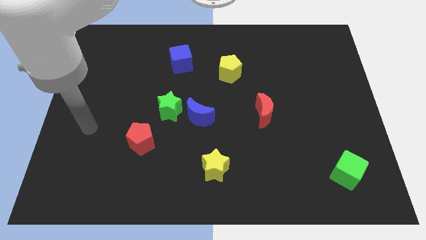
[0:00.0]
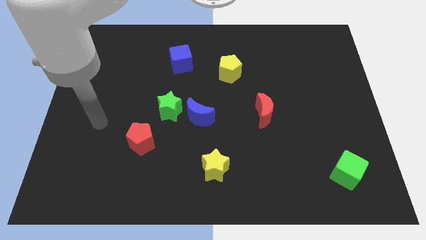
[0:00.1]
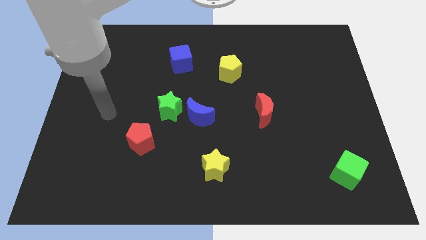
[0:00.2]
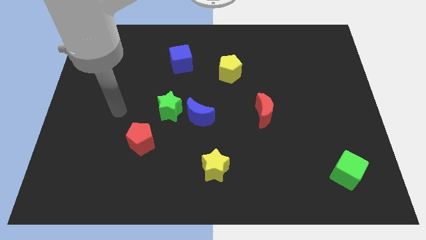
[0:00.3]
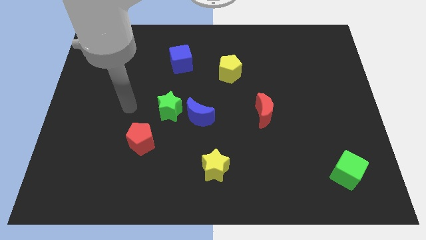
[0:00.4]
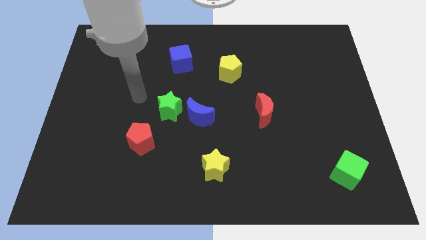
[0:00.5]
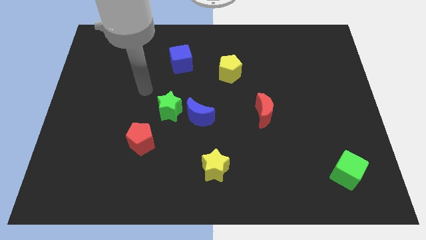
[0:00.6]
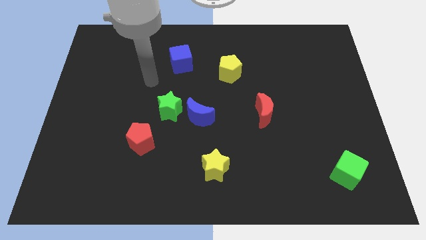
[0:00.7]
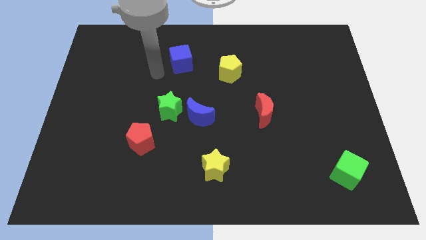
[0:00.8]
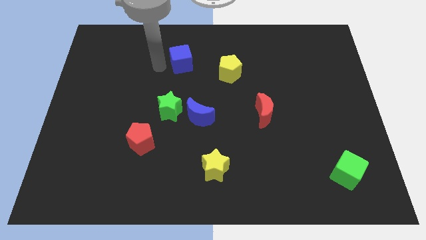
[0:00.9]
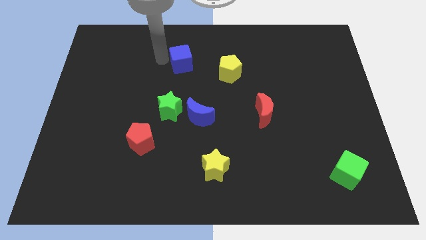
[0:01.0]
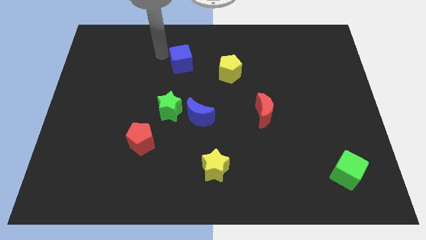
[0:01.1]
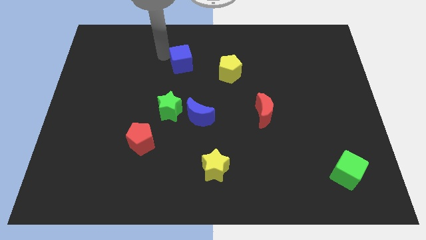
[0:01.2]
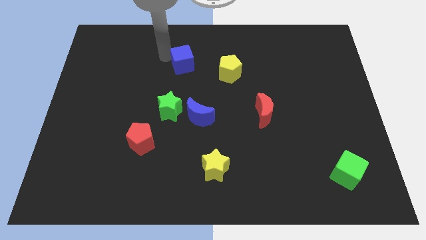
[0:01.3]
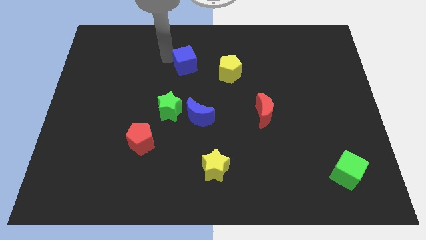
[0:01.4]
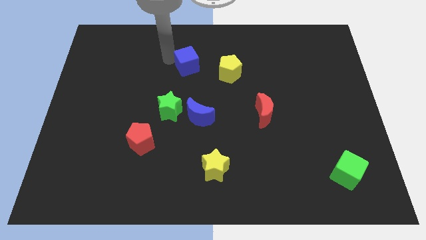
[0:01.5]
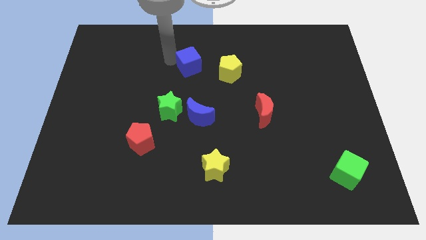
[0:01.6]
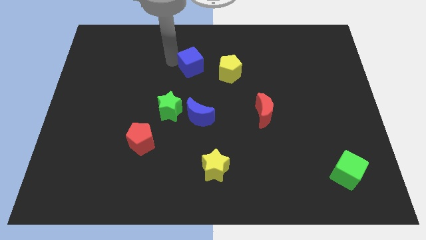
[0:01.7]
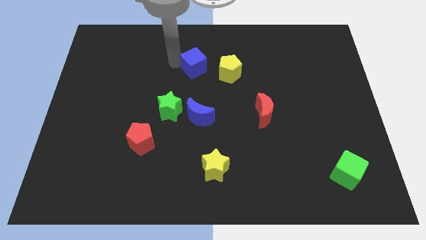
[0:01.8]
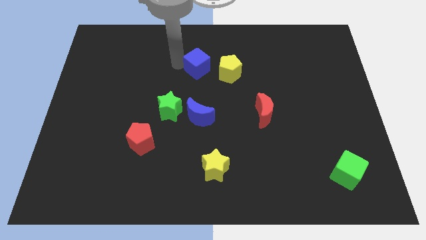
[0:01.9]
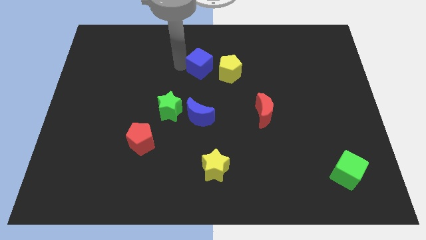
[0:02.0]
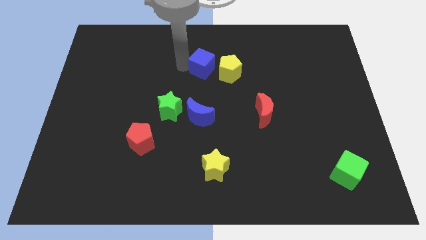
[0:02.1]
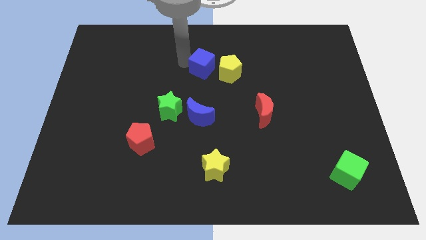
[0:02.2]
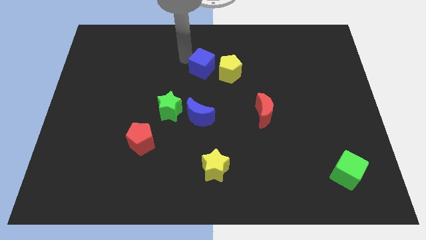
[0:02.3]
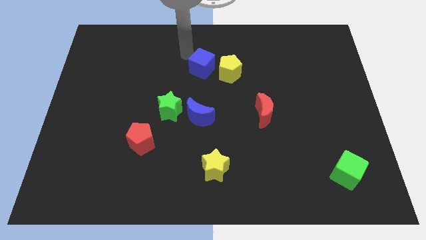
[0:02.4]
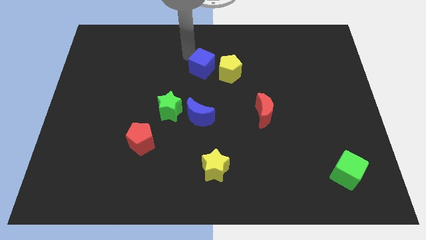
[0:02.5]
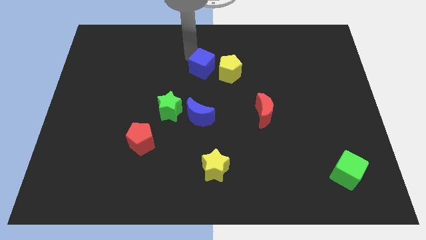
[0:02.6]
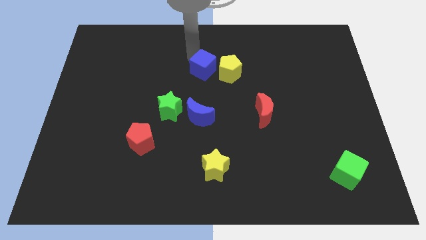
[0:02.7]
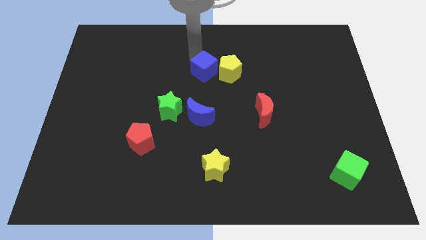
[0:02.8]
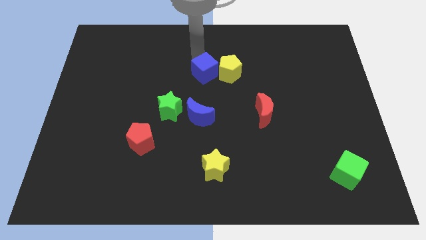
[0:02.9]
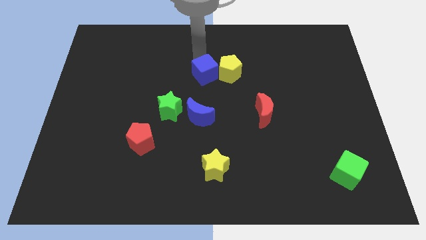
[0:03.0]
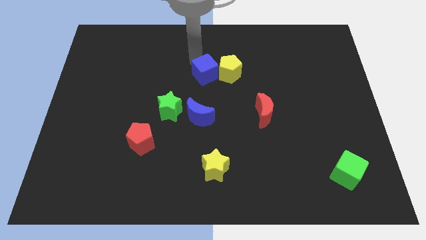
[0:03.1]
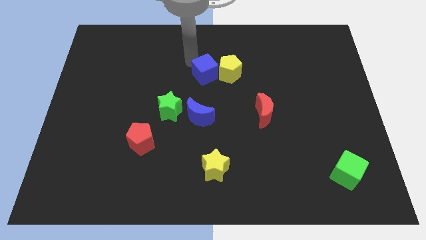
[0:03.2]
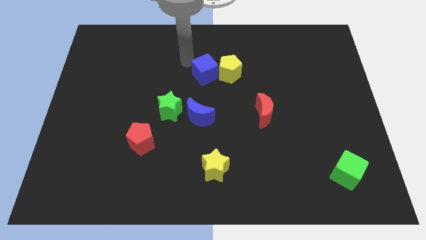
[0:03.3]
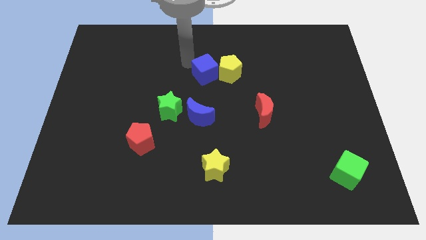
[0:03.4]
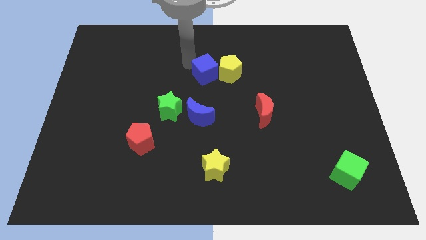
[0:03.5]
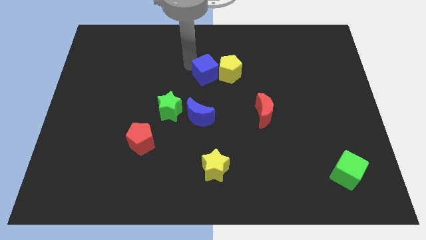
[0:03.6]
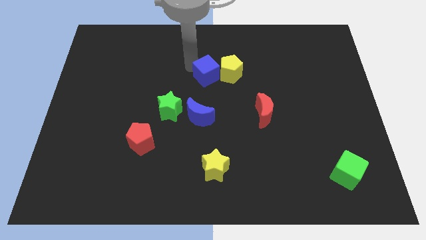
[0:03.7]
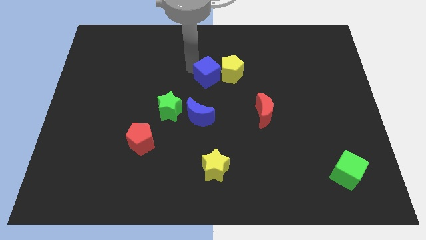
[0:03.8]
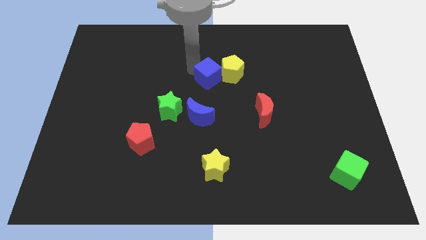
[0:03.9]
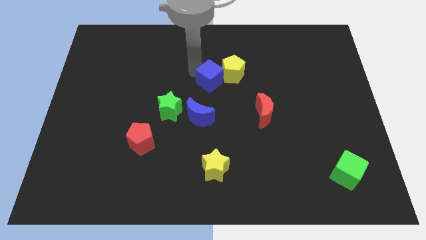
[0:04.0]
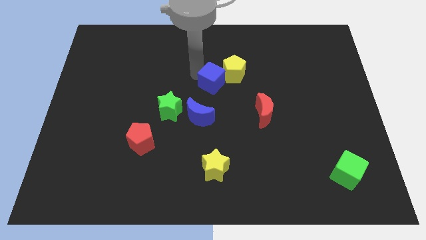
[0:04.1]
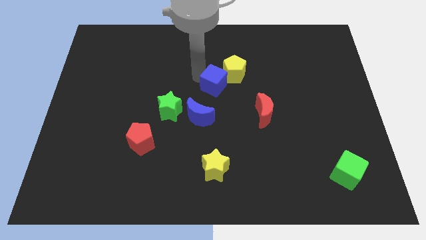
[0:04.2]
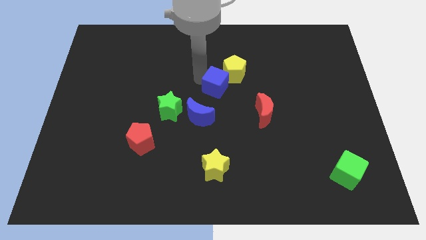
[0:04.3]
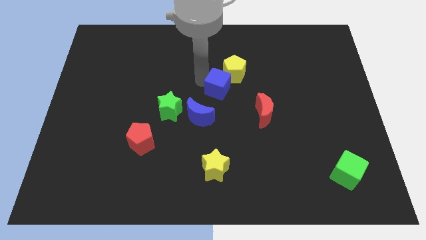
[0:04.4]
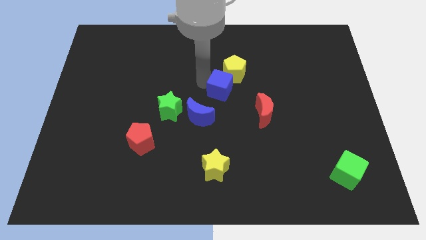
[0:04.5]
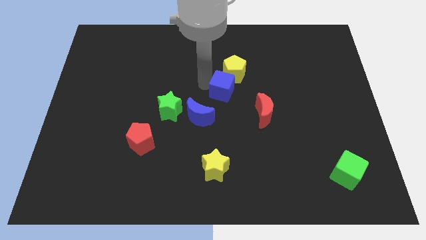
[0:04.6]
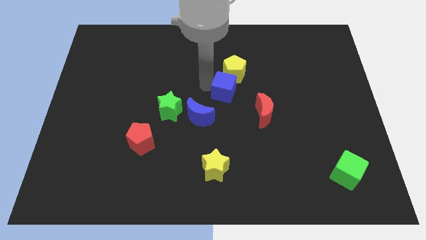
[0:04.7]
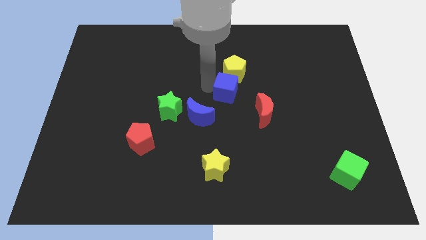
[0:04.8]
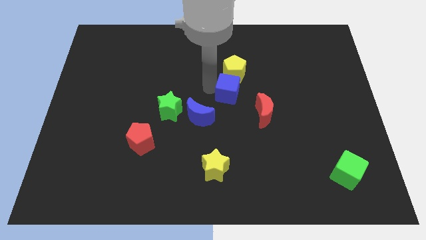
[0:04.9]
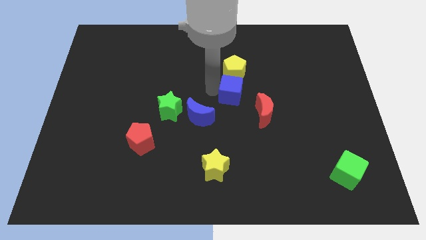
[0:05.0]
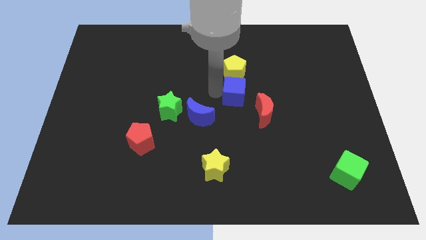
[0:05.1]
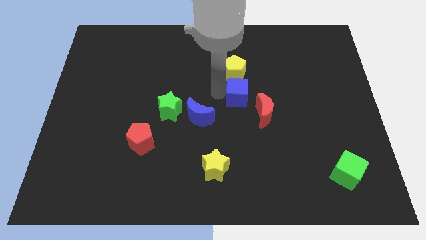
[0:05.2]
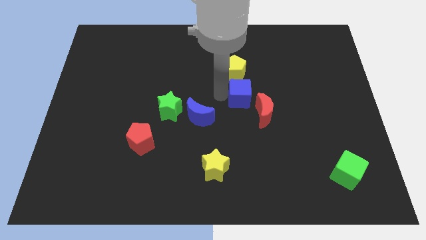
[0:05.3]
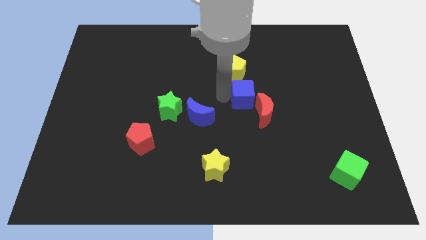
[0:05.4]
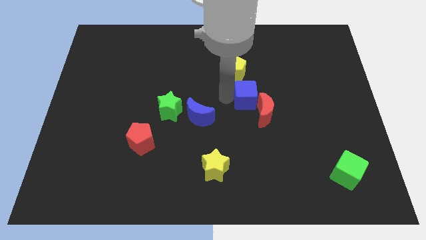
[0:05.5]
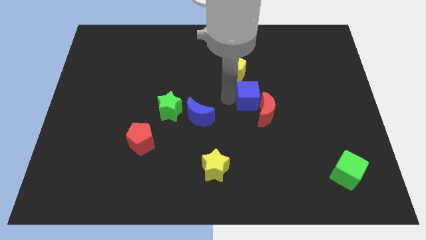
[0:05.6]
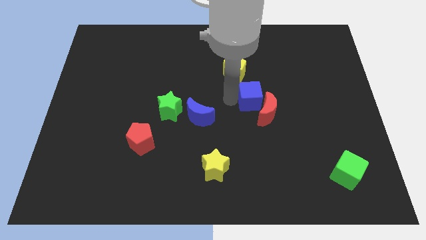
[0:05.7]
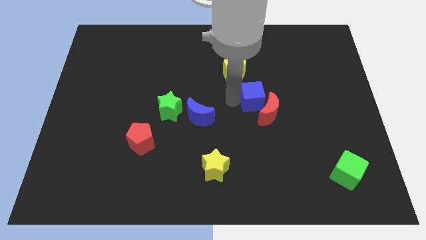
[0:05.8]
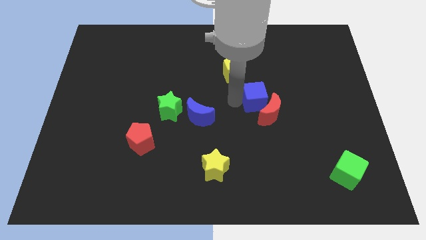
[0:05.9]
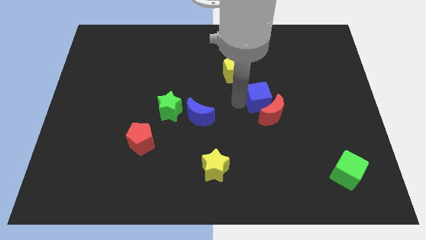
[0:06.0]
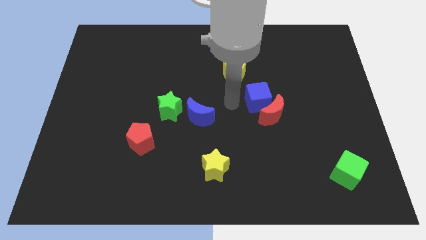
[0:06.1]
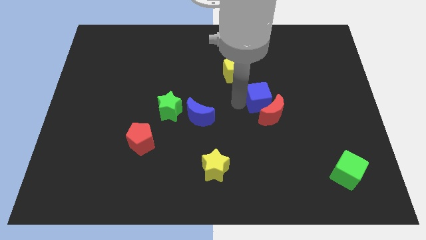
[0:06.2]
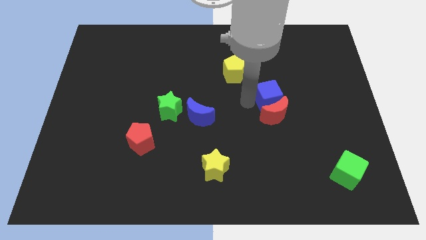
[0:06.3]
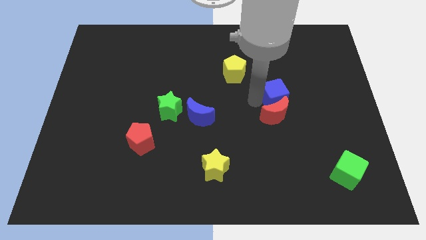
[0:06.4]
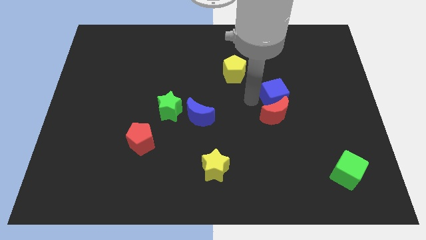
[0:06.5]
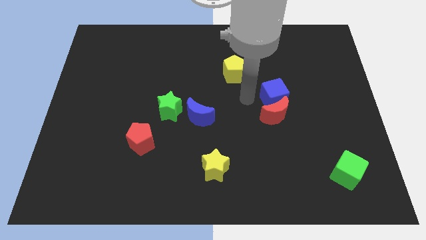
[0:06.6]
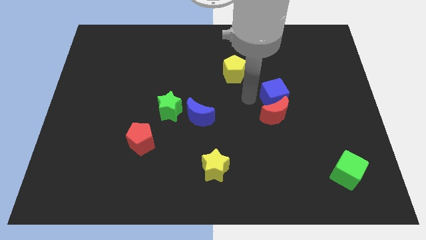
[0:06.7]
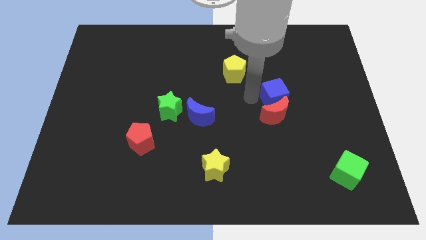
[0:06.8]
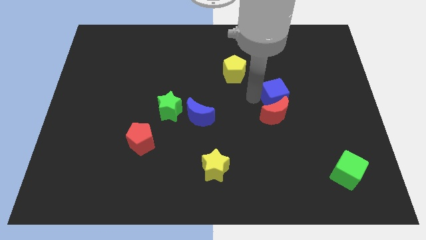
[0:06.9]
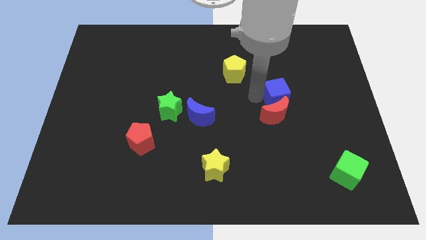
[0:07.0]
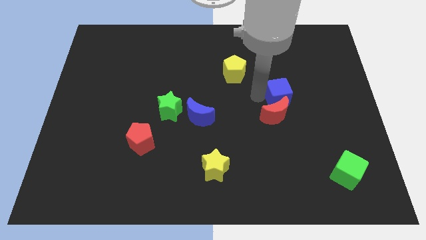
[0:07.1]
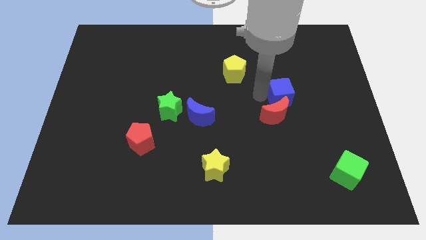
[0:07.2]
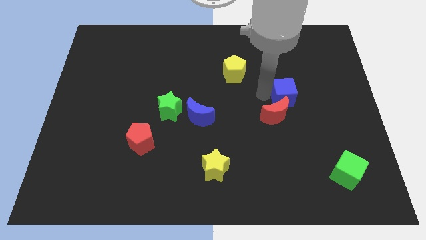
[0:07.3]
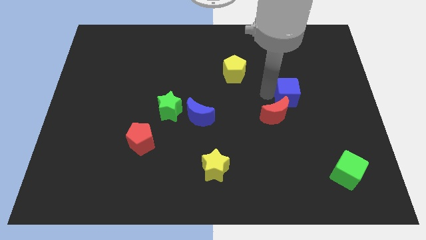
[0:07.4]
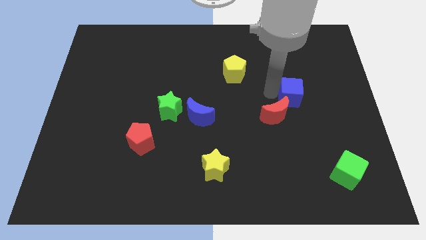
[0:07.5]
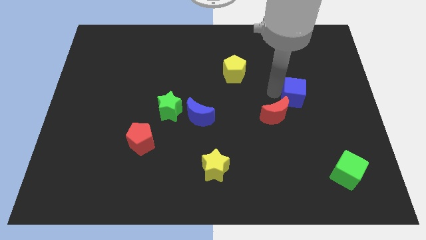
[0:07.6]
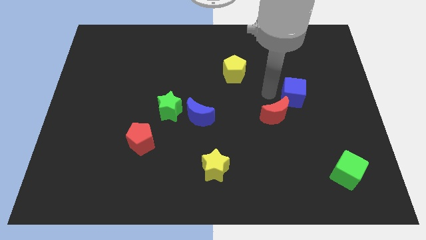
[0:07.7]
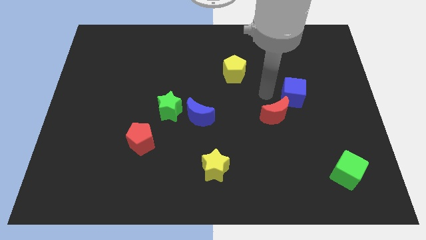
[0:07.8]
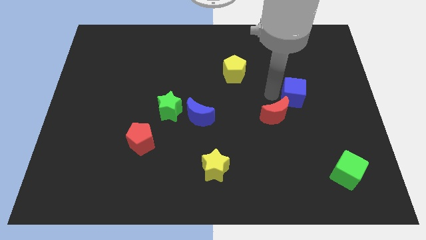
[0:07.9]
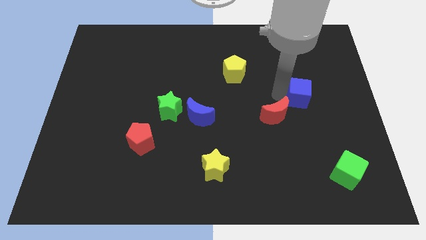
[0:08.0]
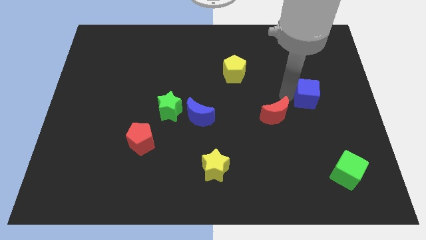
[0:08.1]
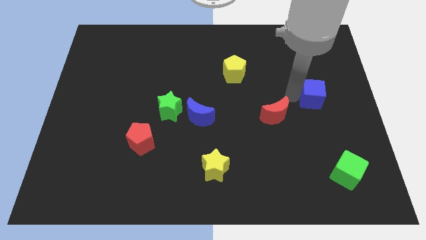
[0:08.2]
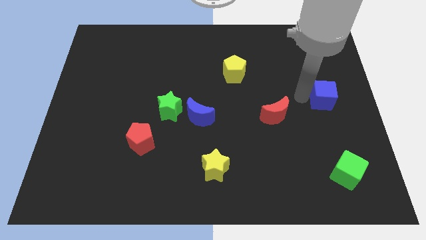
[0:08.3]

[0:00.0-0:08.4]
move the blue cube to the right side of the board
